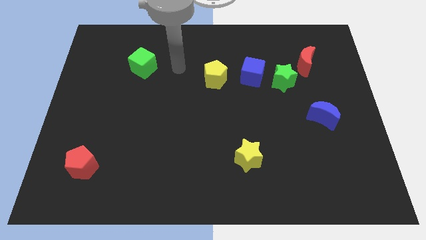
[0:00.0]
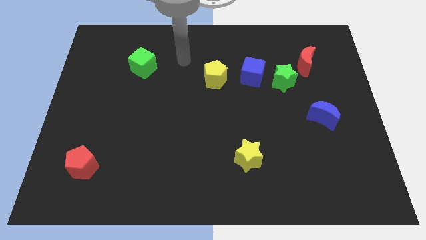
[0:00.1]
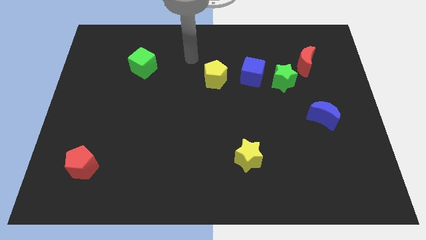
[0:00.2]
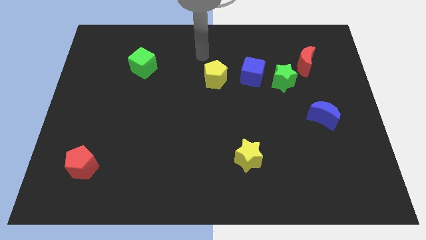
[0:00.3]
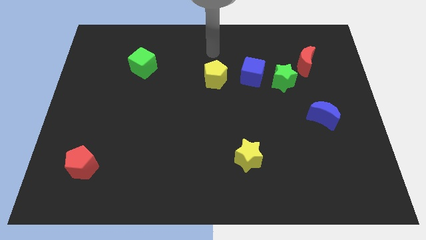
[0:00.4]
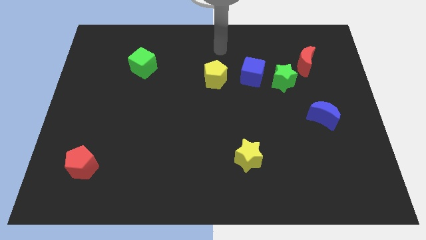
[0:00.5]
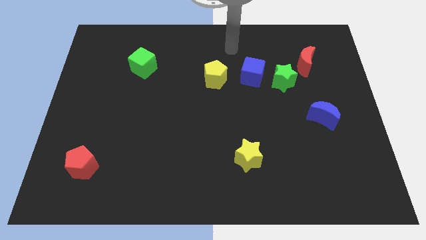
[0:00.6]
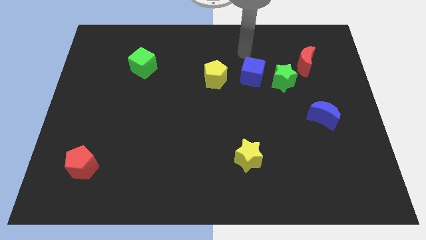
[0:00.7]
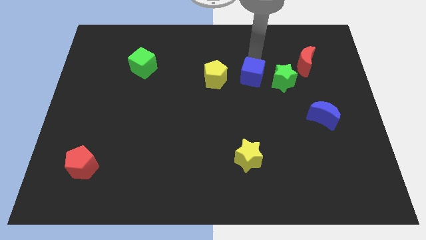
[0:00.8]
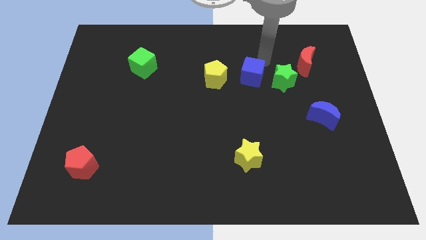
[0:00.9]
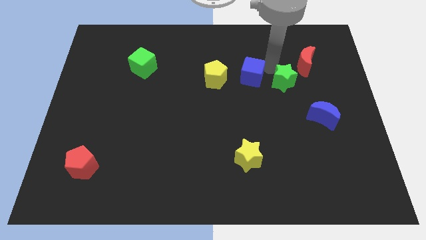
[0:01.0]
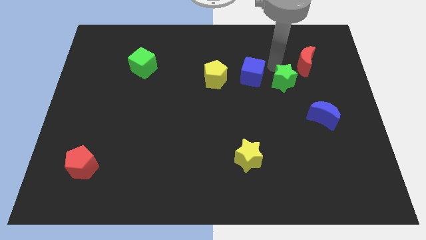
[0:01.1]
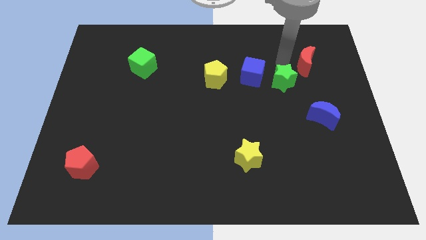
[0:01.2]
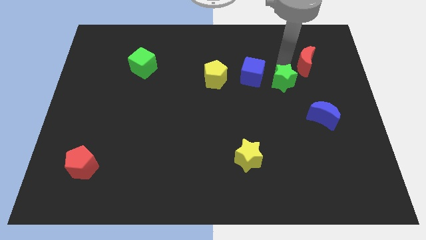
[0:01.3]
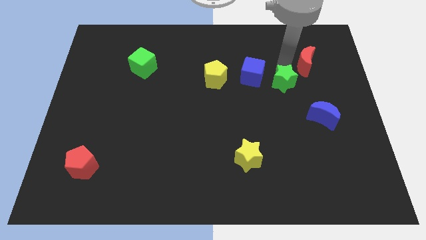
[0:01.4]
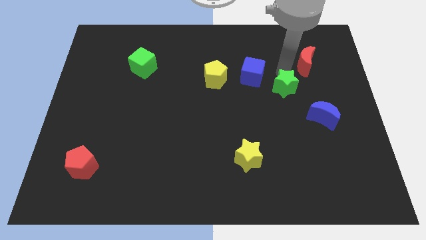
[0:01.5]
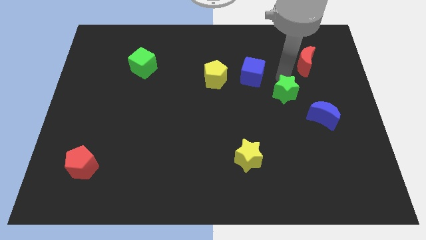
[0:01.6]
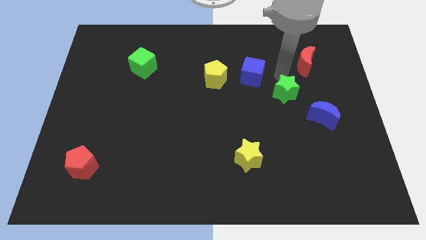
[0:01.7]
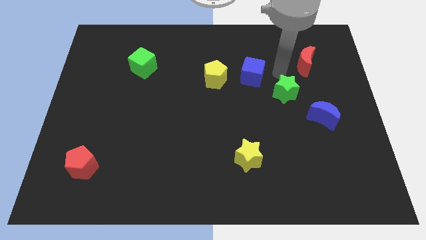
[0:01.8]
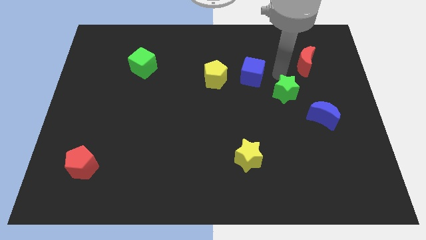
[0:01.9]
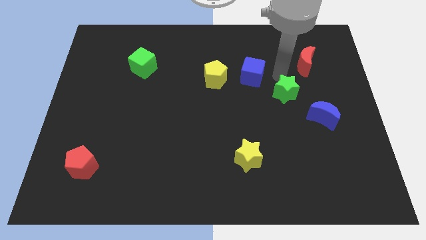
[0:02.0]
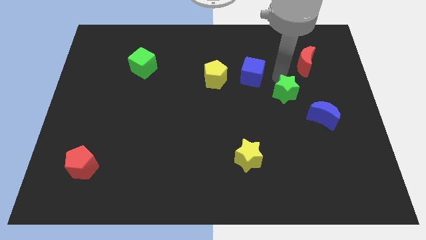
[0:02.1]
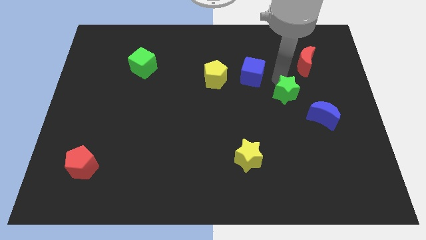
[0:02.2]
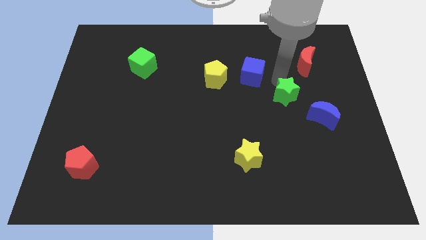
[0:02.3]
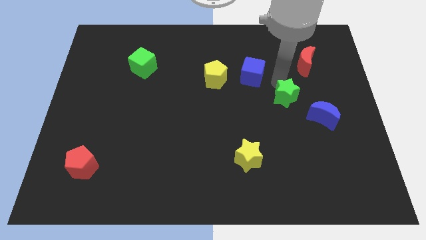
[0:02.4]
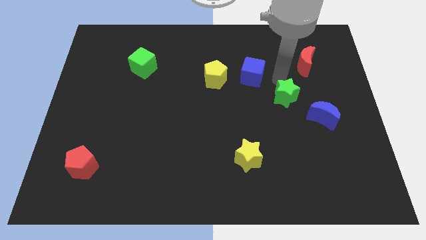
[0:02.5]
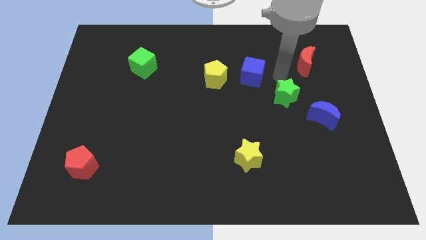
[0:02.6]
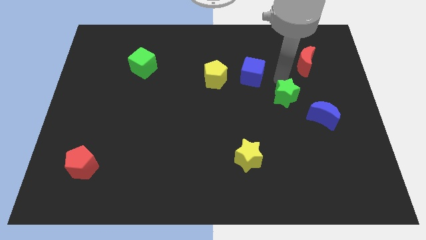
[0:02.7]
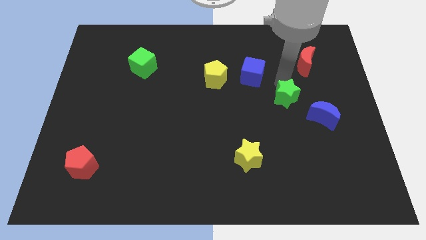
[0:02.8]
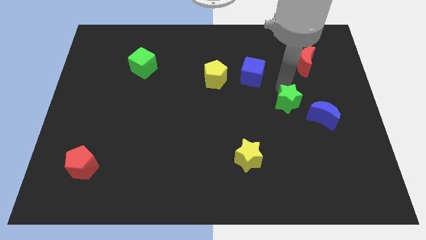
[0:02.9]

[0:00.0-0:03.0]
pull the green star apart from the blue cube and red moon

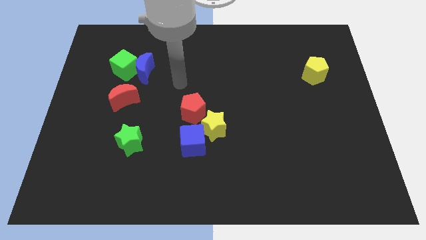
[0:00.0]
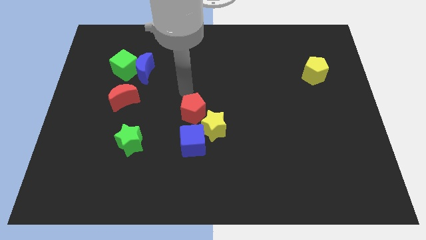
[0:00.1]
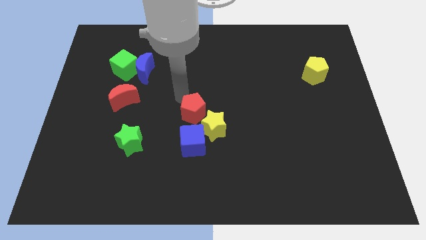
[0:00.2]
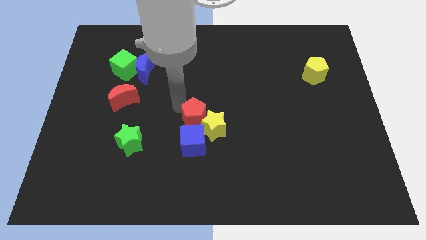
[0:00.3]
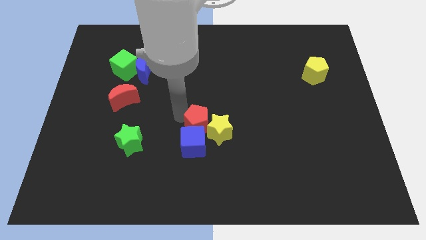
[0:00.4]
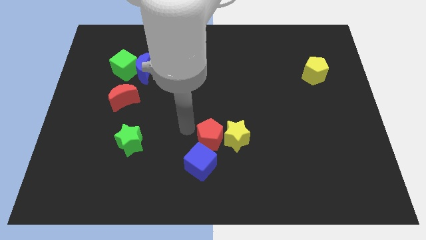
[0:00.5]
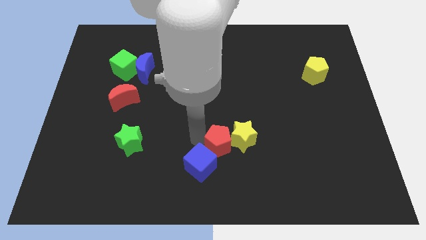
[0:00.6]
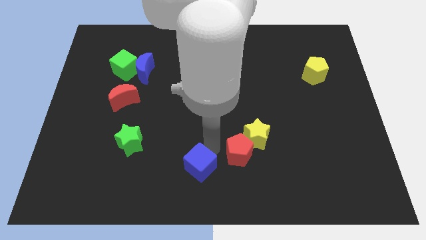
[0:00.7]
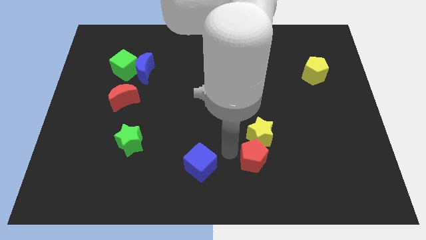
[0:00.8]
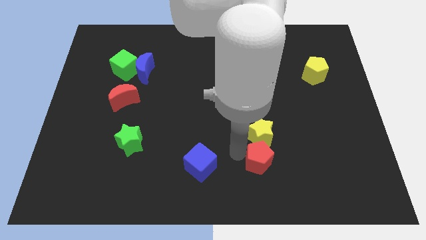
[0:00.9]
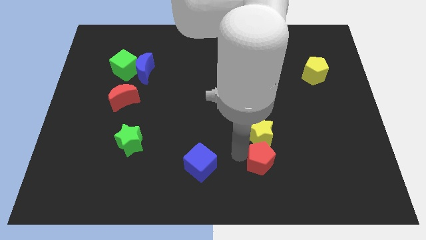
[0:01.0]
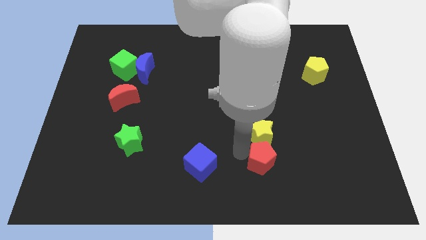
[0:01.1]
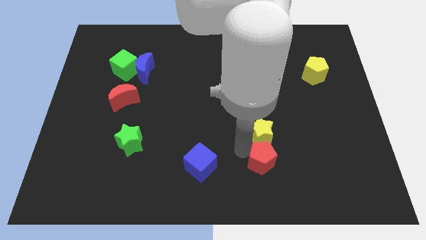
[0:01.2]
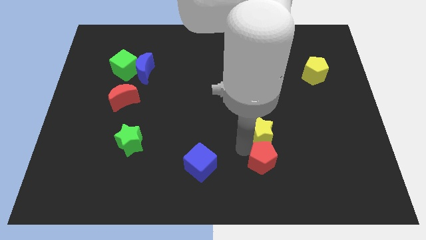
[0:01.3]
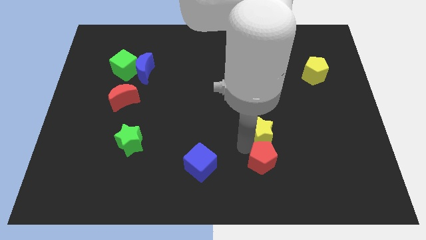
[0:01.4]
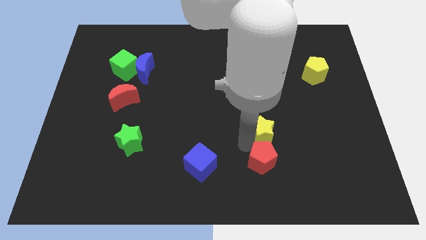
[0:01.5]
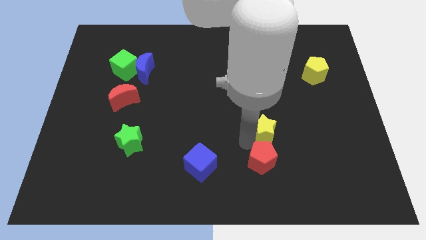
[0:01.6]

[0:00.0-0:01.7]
pull the yellow star apart from the blue cube and red pentagon

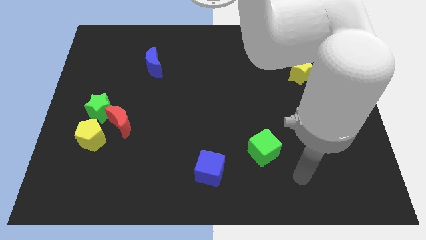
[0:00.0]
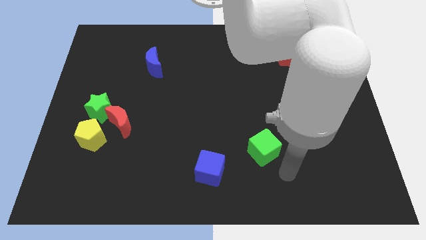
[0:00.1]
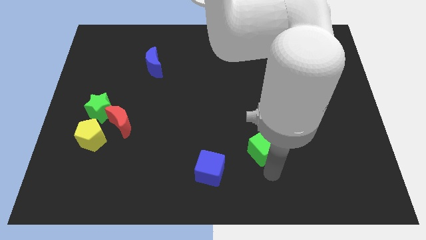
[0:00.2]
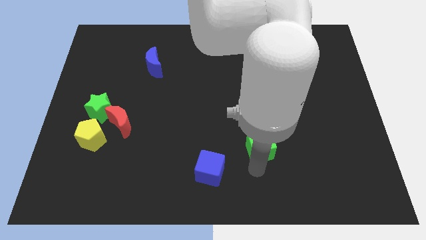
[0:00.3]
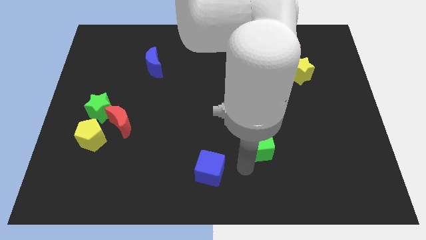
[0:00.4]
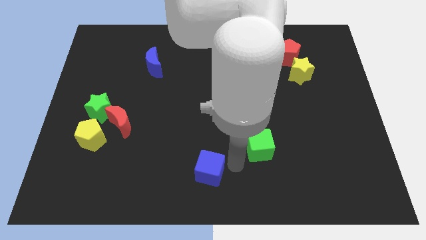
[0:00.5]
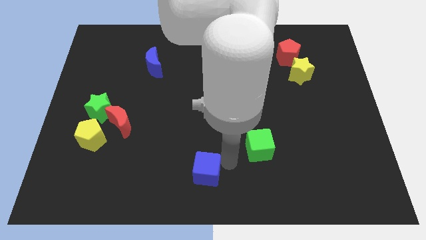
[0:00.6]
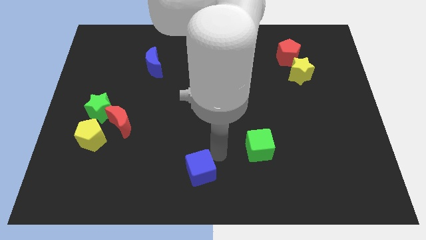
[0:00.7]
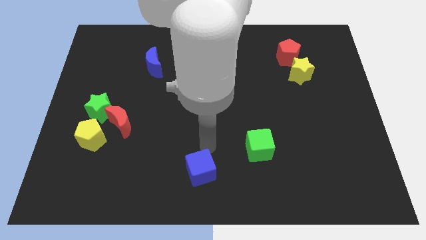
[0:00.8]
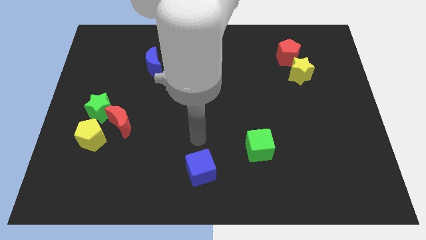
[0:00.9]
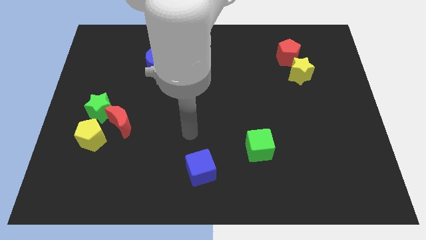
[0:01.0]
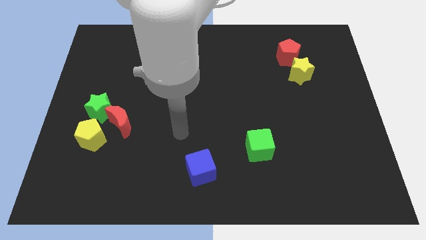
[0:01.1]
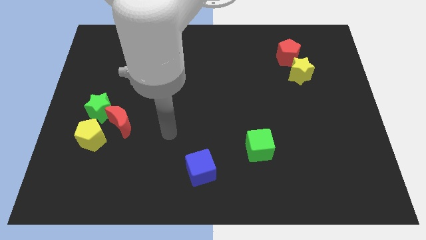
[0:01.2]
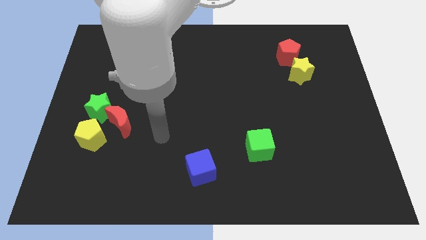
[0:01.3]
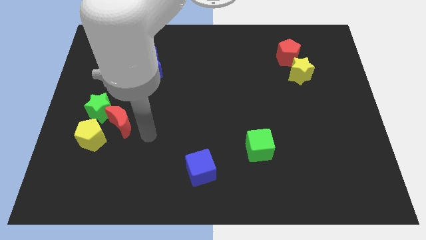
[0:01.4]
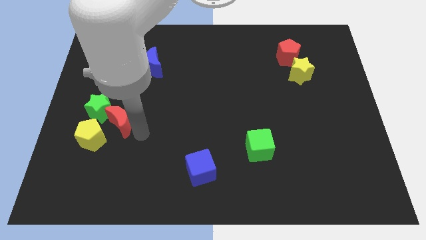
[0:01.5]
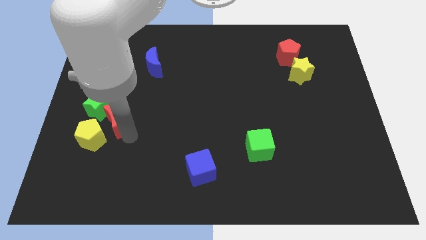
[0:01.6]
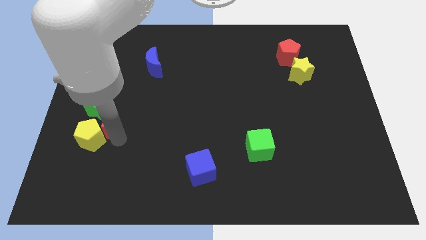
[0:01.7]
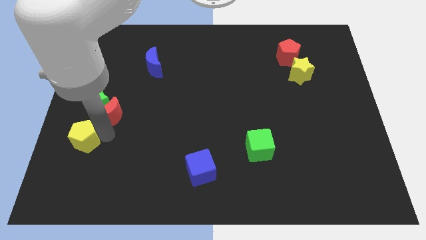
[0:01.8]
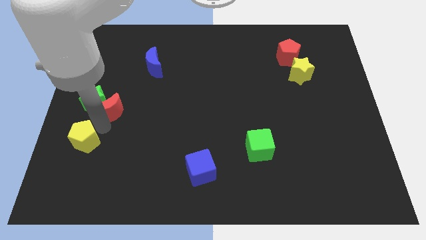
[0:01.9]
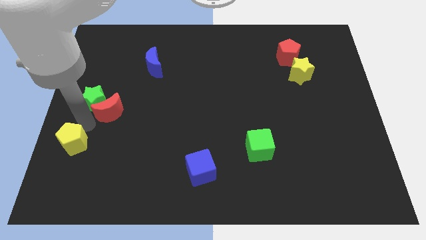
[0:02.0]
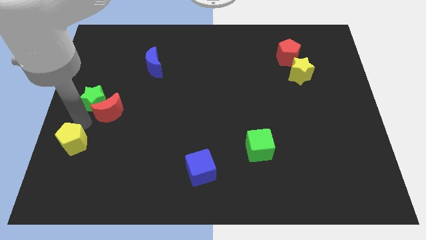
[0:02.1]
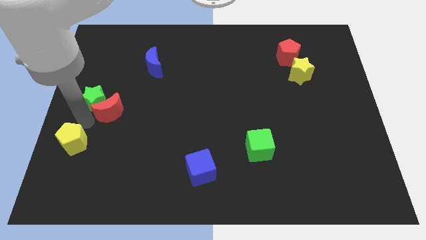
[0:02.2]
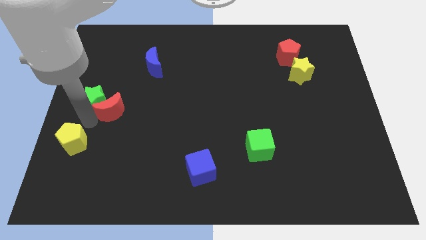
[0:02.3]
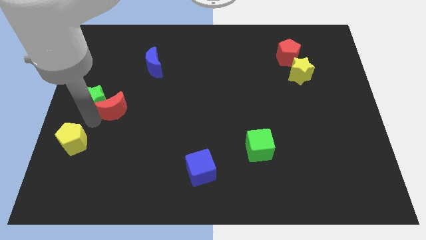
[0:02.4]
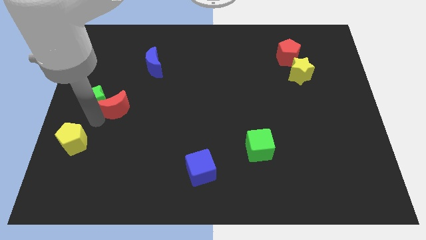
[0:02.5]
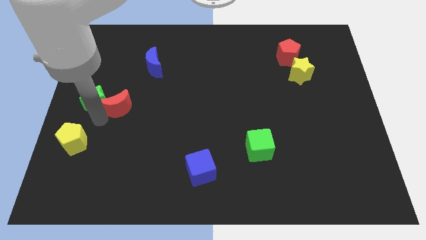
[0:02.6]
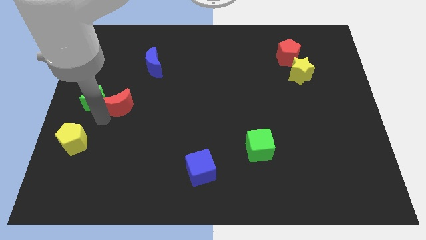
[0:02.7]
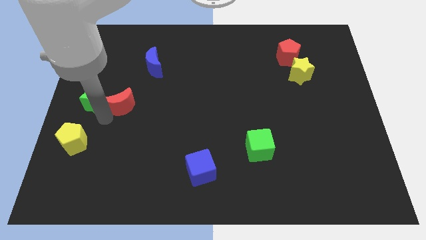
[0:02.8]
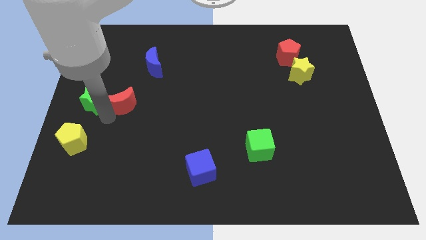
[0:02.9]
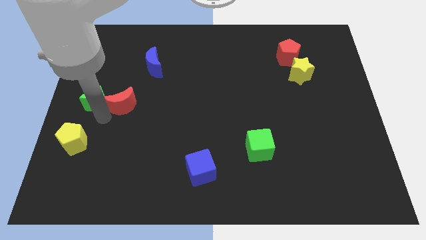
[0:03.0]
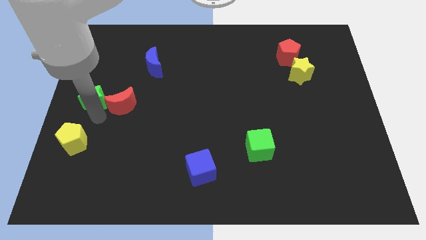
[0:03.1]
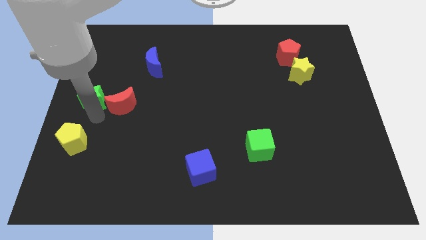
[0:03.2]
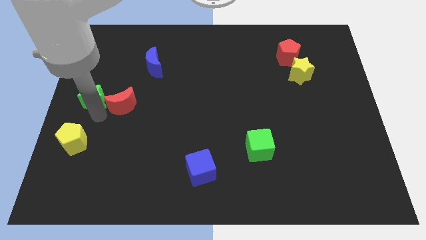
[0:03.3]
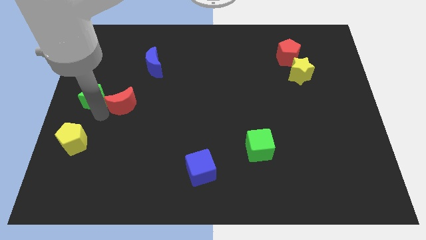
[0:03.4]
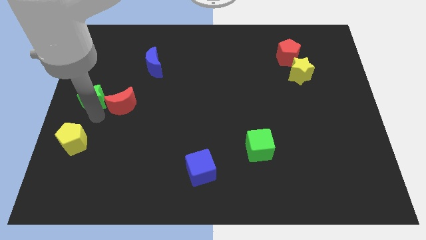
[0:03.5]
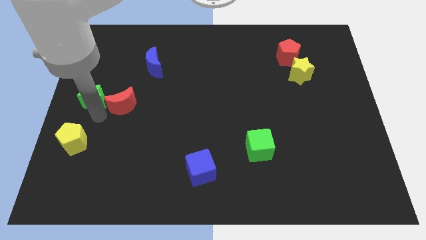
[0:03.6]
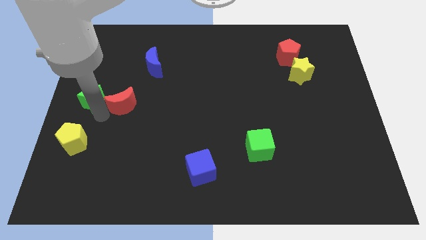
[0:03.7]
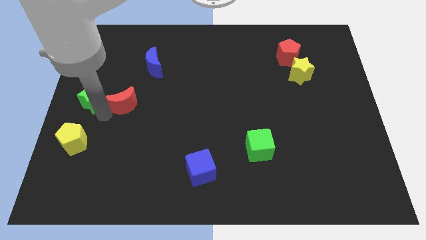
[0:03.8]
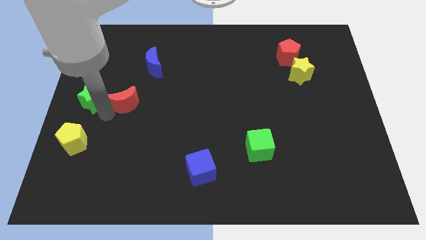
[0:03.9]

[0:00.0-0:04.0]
pull the red moon apart from the green star and yellow pentagon

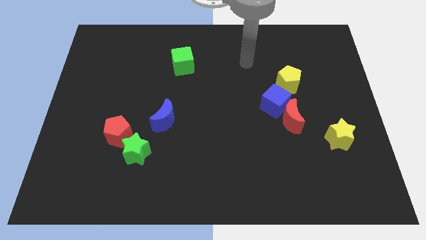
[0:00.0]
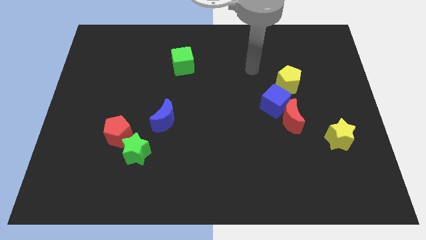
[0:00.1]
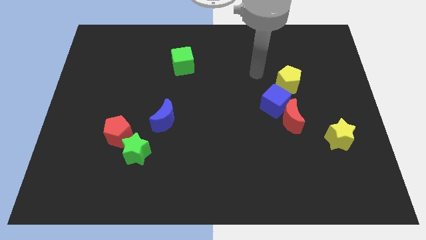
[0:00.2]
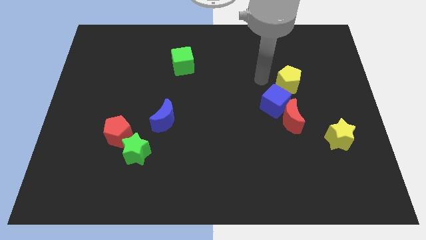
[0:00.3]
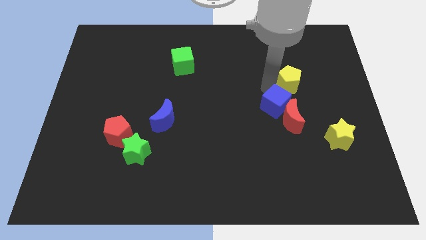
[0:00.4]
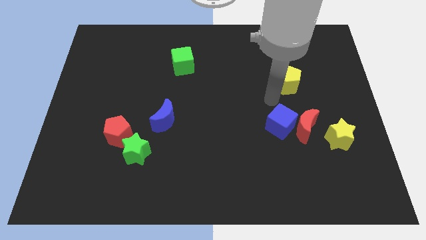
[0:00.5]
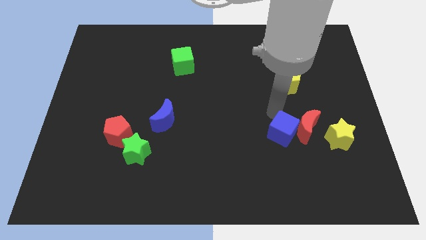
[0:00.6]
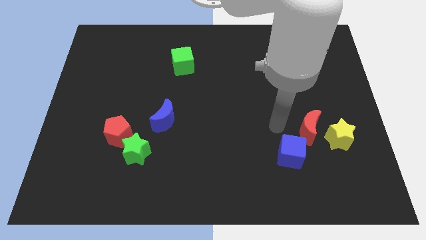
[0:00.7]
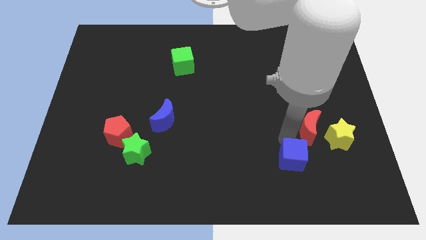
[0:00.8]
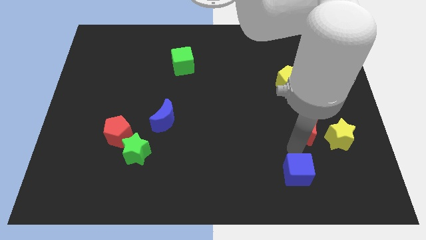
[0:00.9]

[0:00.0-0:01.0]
pull the red moon apart from the blue cube
